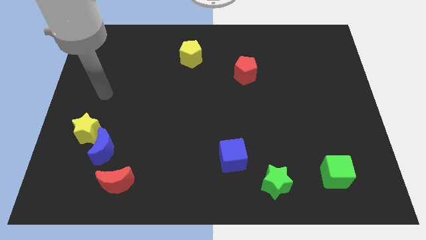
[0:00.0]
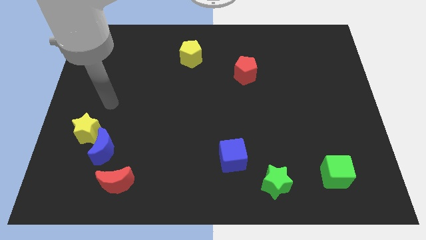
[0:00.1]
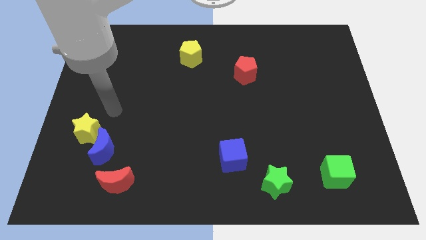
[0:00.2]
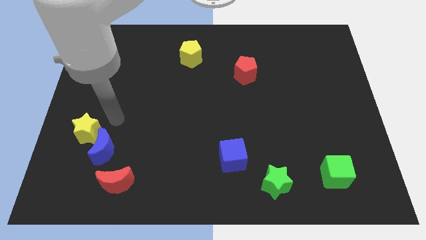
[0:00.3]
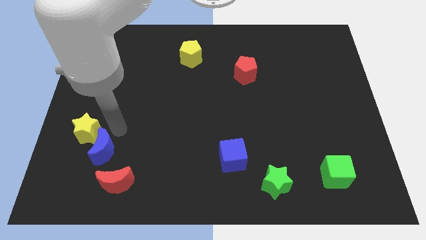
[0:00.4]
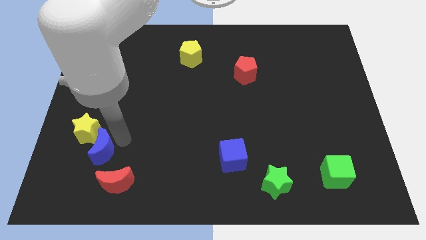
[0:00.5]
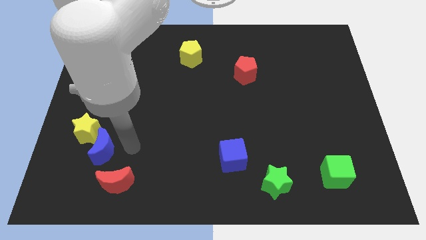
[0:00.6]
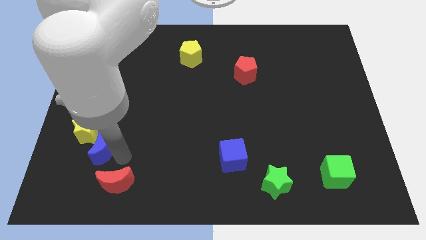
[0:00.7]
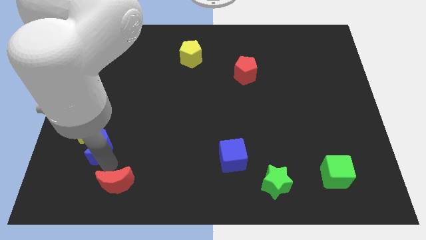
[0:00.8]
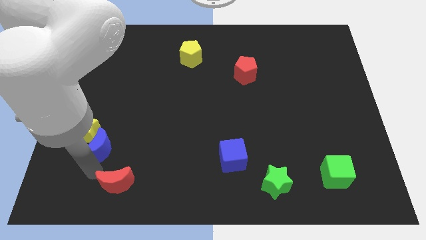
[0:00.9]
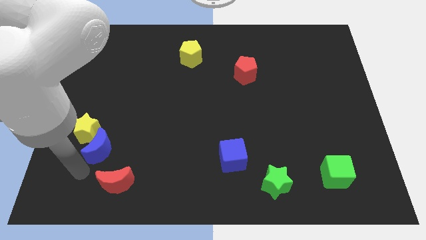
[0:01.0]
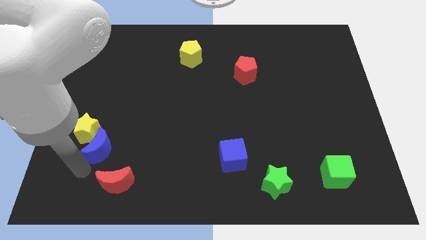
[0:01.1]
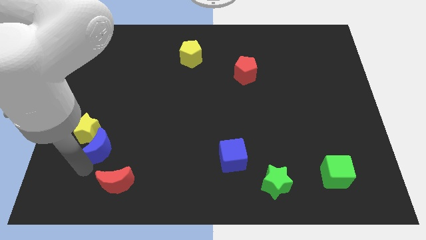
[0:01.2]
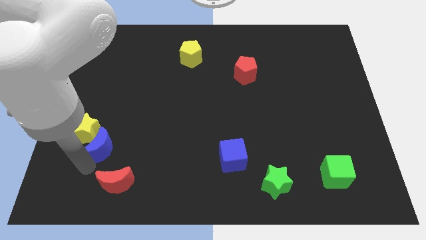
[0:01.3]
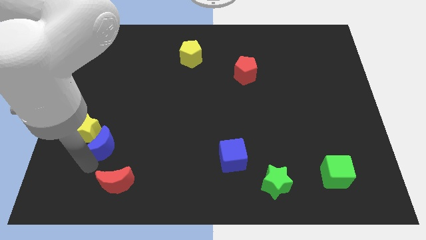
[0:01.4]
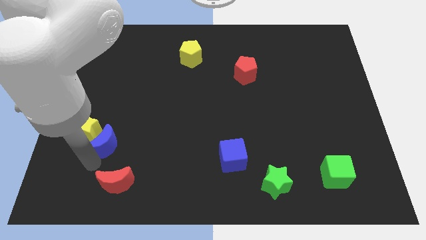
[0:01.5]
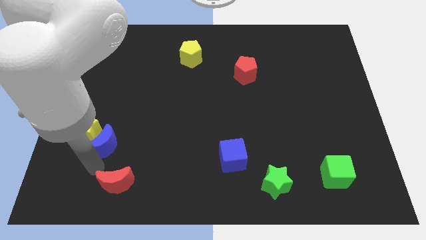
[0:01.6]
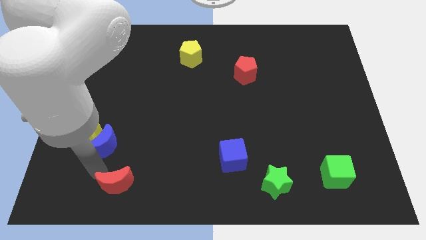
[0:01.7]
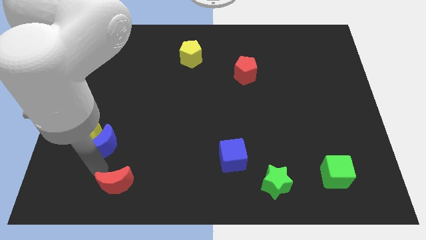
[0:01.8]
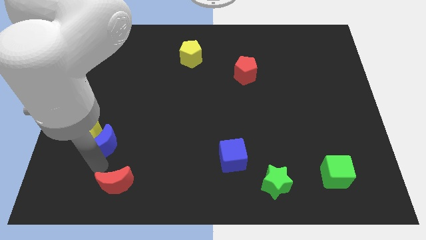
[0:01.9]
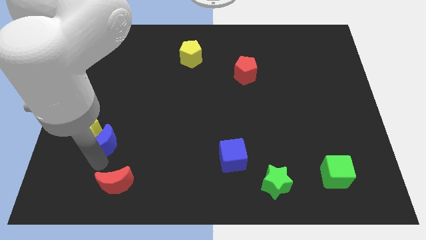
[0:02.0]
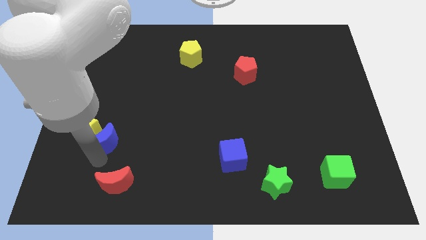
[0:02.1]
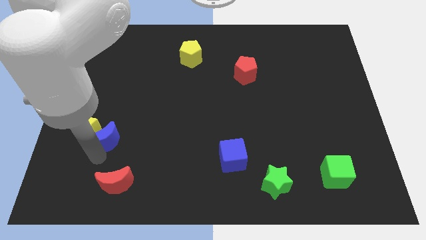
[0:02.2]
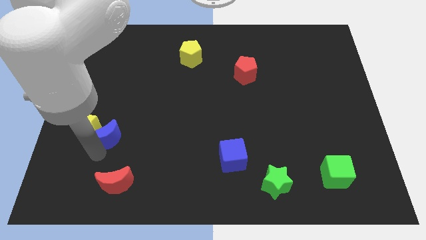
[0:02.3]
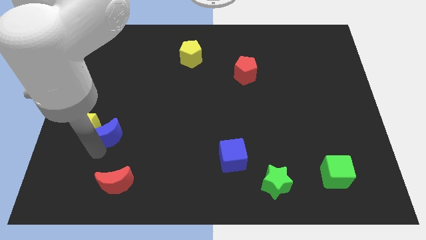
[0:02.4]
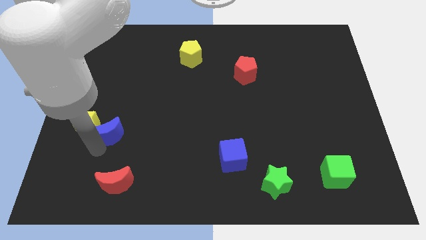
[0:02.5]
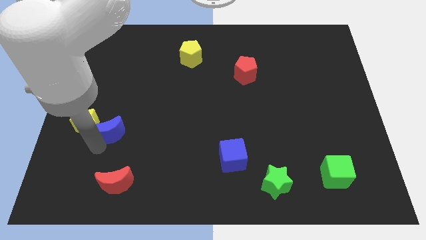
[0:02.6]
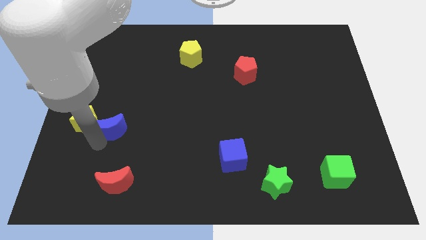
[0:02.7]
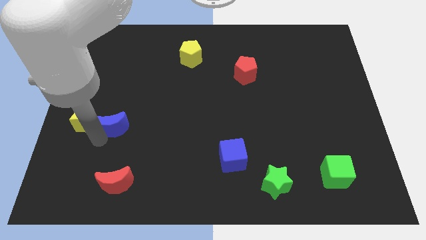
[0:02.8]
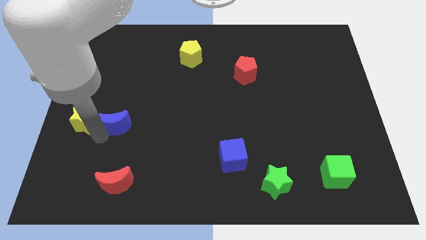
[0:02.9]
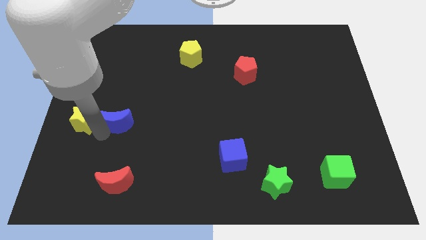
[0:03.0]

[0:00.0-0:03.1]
slightly move the blue moon up

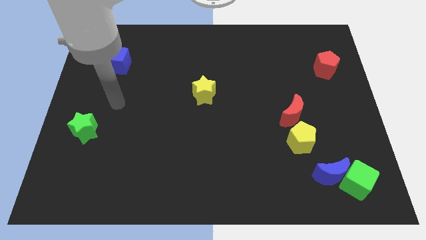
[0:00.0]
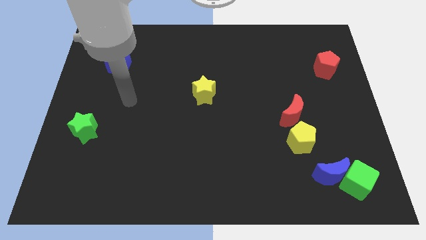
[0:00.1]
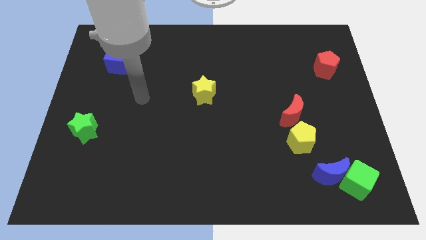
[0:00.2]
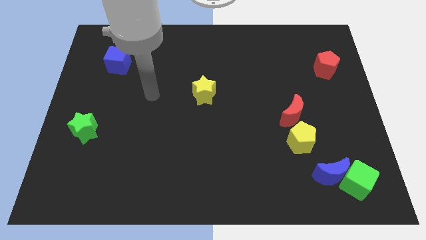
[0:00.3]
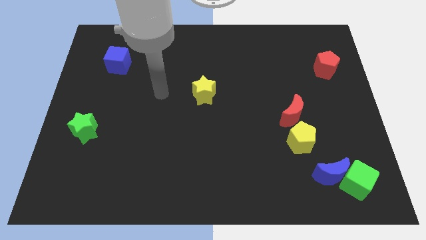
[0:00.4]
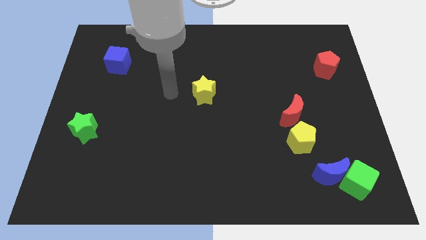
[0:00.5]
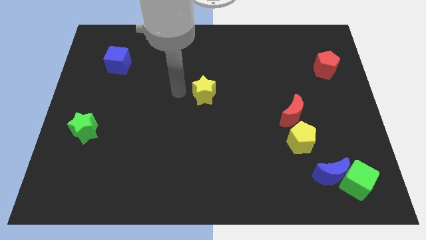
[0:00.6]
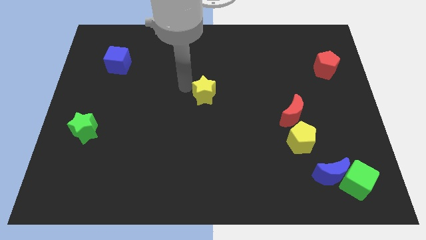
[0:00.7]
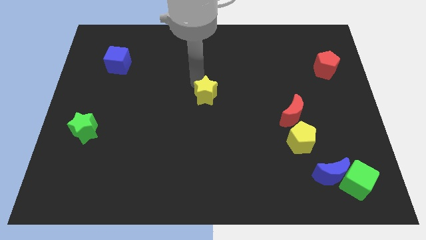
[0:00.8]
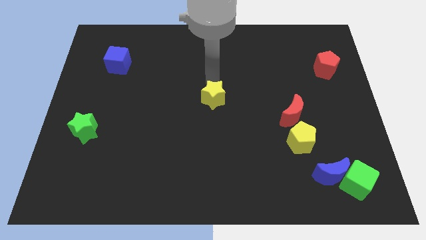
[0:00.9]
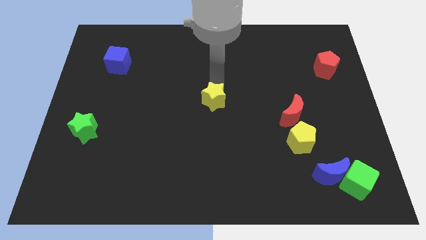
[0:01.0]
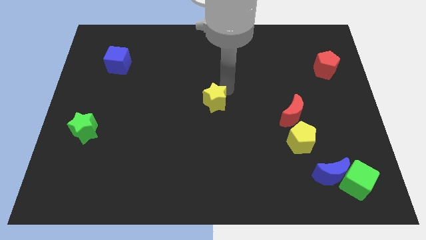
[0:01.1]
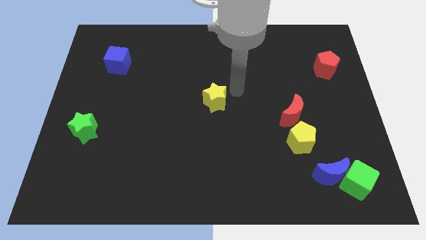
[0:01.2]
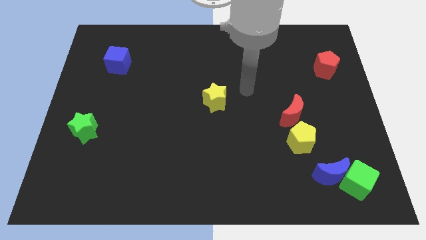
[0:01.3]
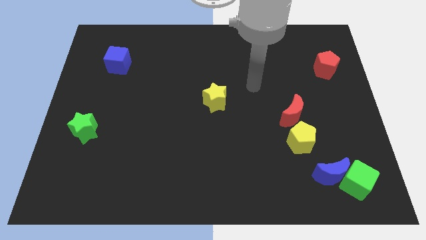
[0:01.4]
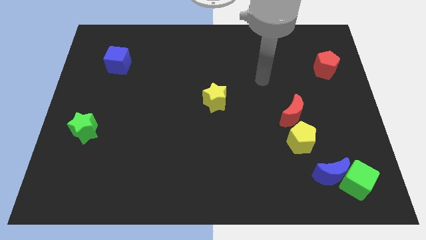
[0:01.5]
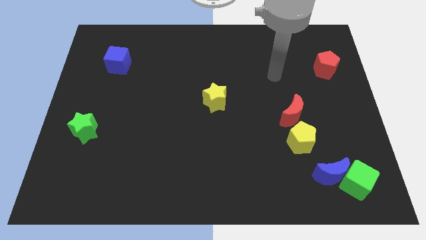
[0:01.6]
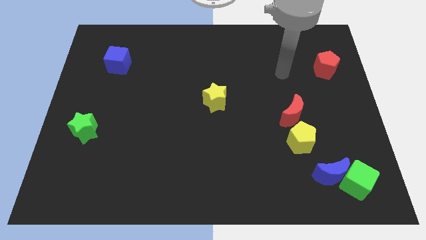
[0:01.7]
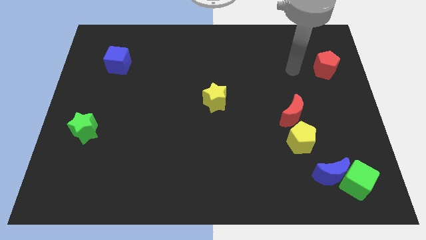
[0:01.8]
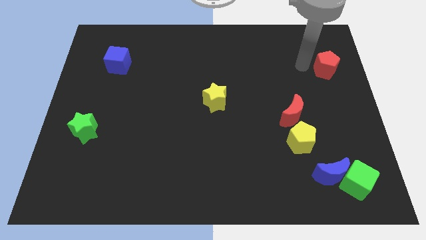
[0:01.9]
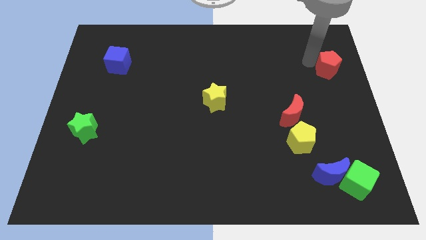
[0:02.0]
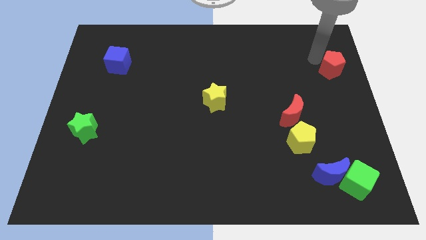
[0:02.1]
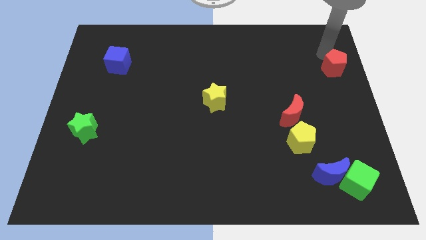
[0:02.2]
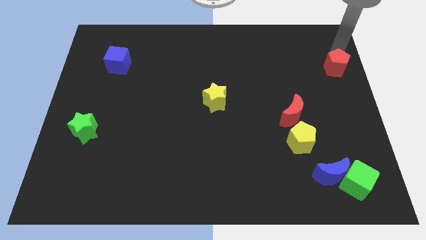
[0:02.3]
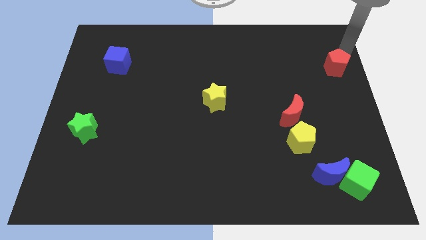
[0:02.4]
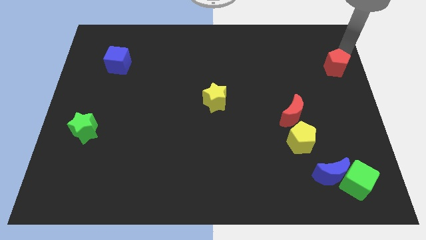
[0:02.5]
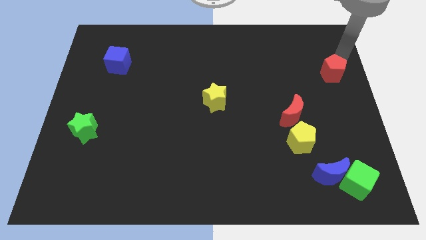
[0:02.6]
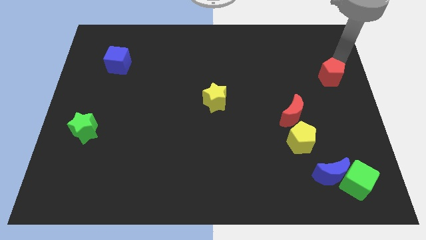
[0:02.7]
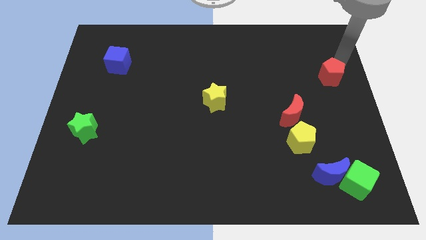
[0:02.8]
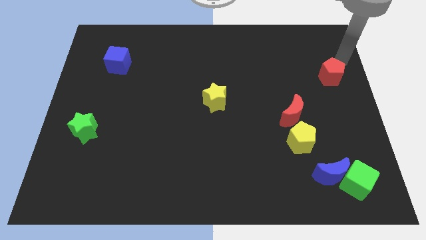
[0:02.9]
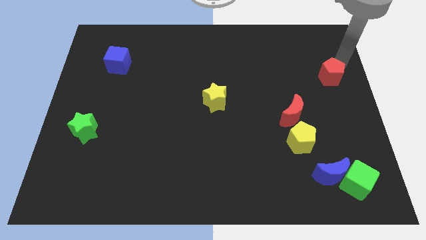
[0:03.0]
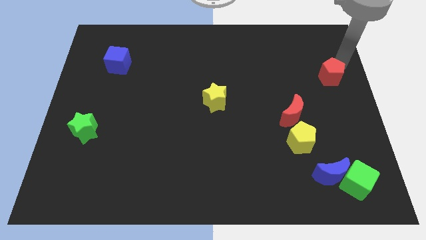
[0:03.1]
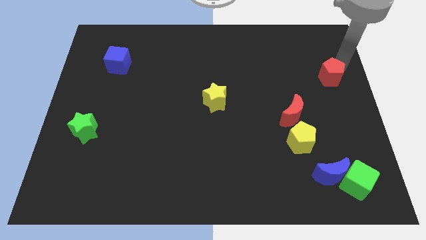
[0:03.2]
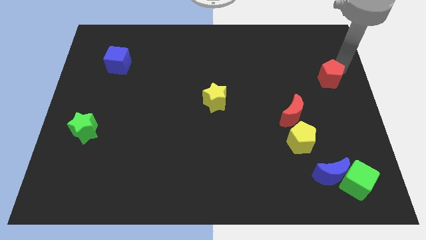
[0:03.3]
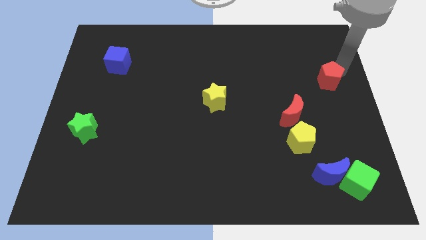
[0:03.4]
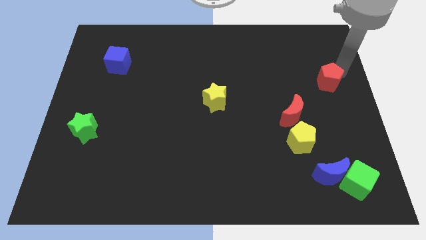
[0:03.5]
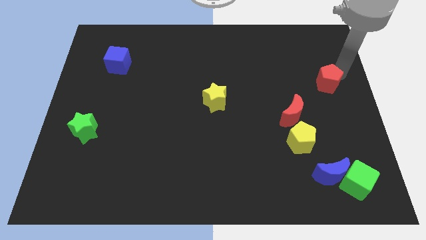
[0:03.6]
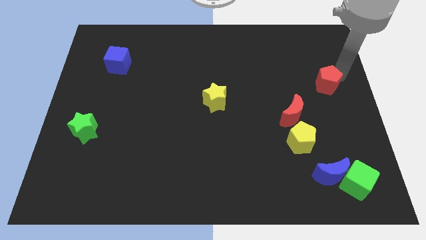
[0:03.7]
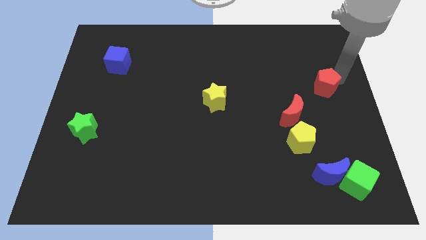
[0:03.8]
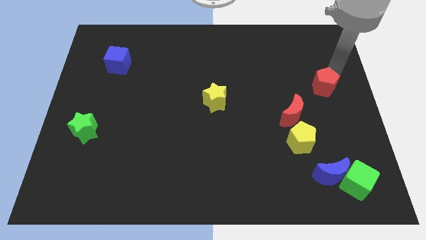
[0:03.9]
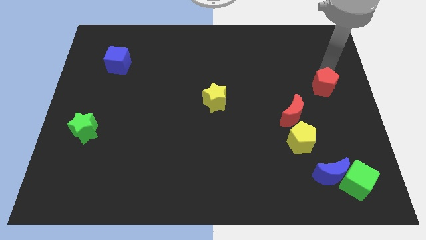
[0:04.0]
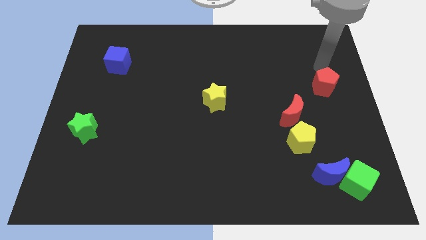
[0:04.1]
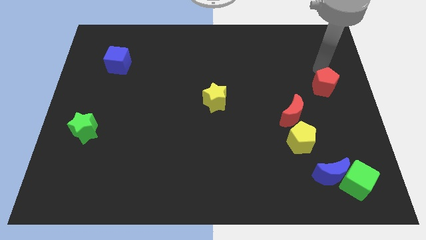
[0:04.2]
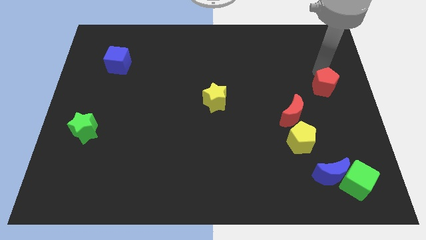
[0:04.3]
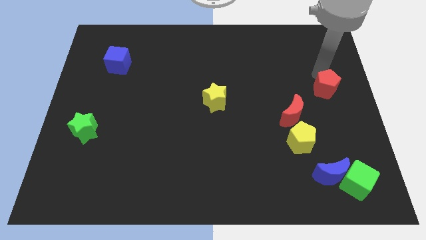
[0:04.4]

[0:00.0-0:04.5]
move the red pentagon downwards somewhat
